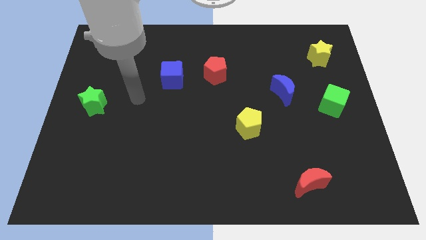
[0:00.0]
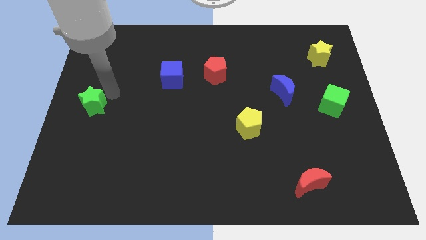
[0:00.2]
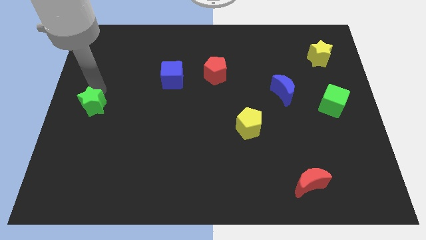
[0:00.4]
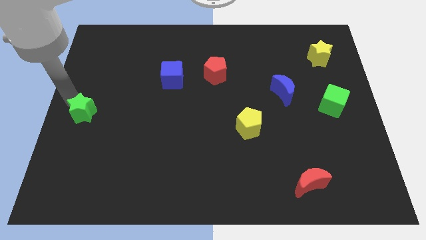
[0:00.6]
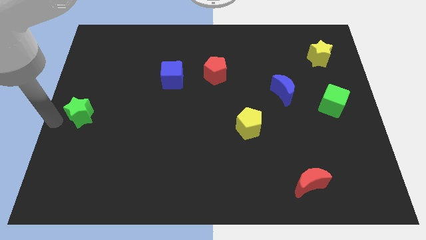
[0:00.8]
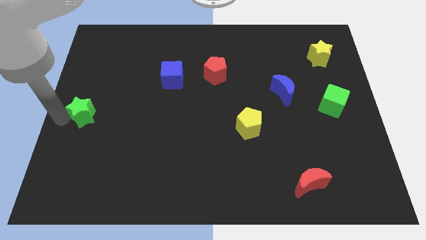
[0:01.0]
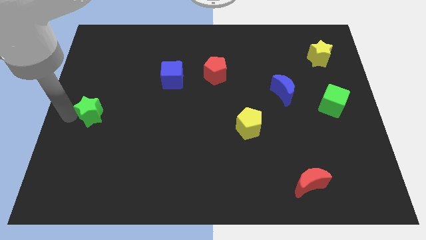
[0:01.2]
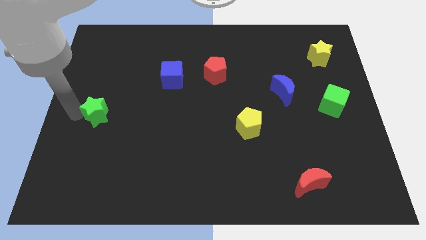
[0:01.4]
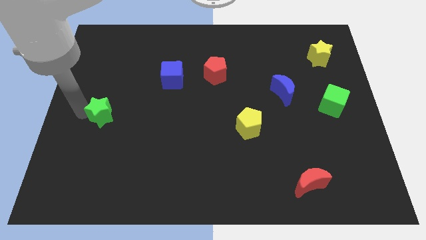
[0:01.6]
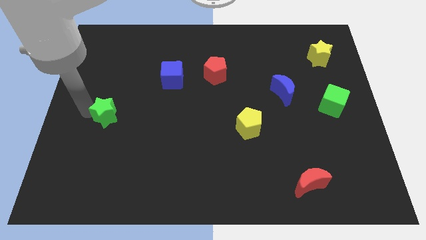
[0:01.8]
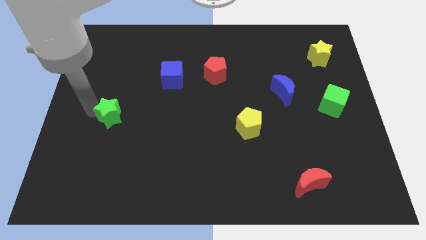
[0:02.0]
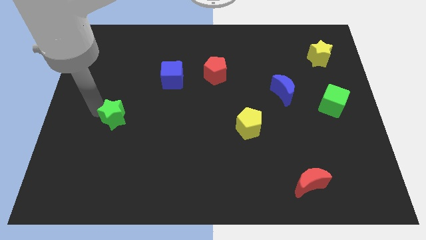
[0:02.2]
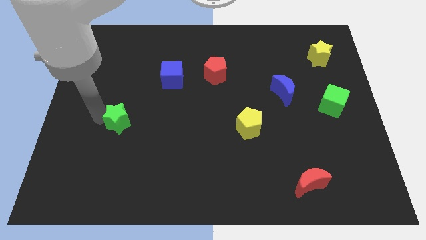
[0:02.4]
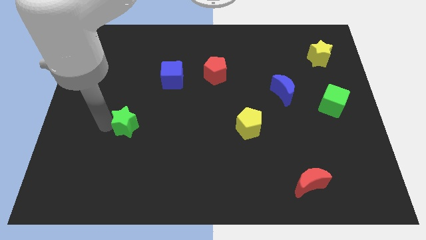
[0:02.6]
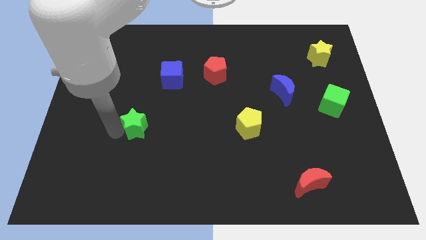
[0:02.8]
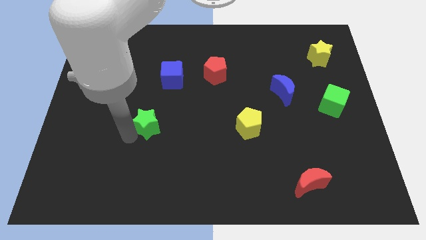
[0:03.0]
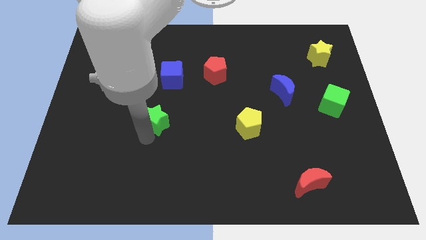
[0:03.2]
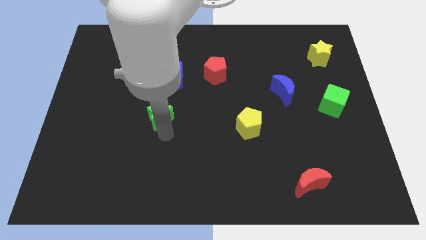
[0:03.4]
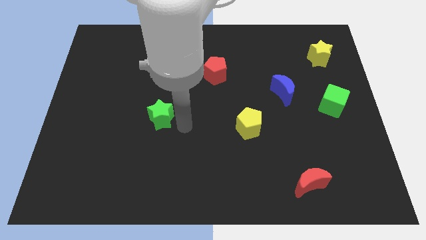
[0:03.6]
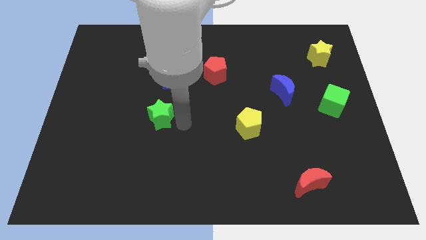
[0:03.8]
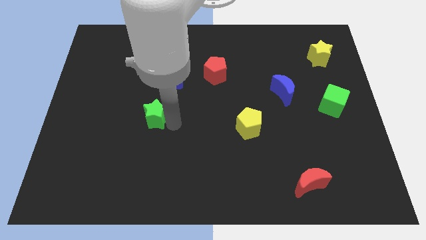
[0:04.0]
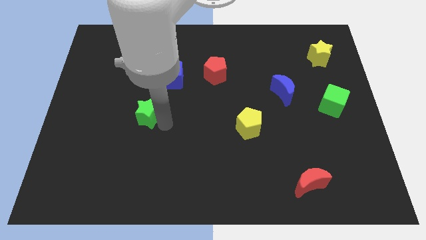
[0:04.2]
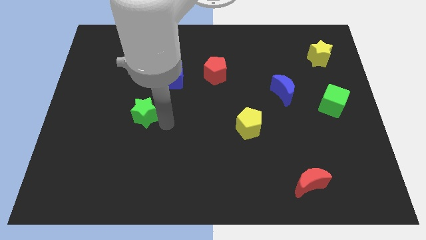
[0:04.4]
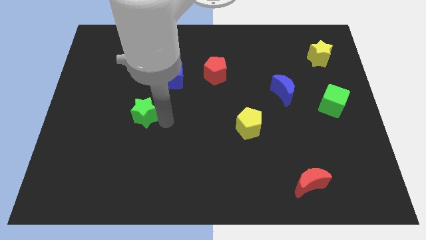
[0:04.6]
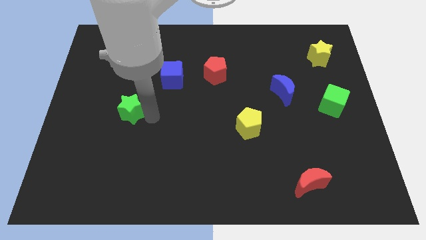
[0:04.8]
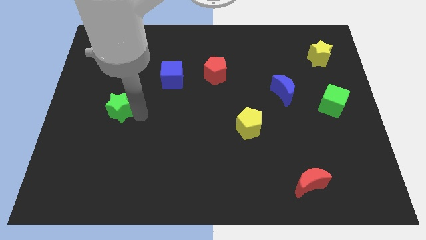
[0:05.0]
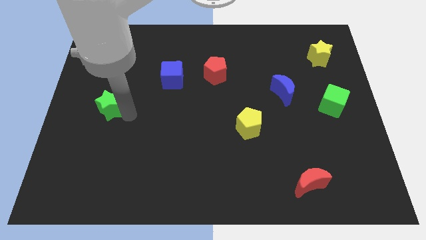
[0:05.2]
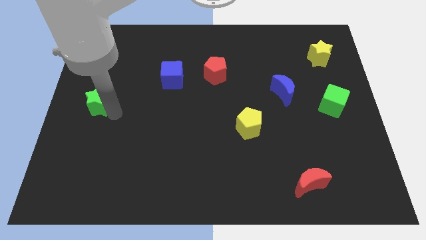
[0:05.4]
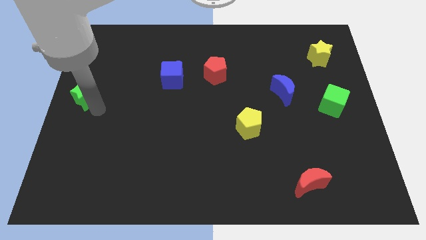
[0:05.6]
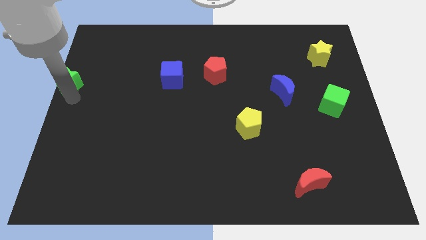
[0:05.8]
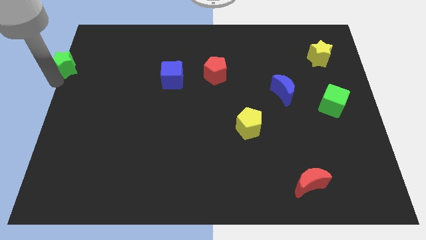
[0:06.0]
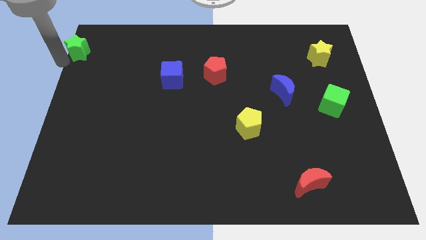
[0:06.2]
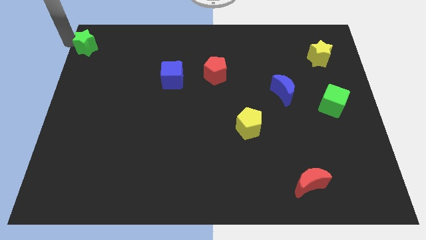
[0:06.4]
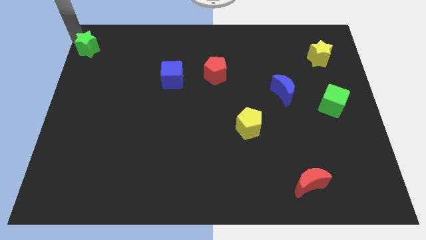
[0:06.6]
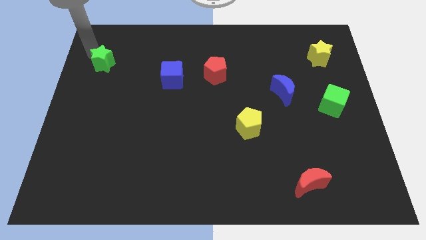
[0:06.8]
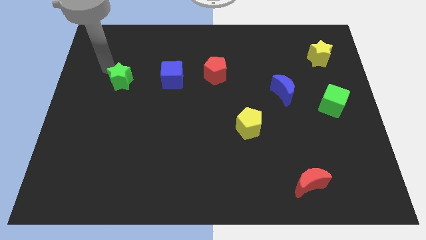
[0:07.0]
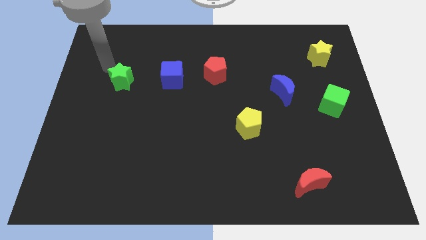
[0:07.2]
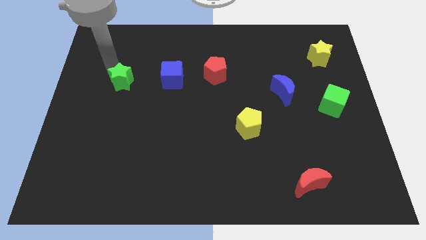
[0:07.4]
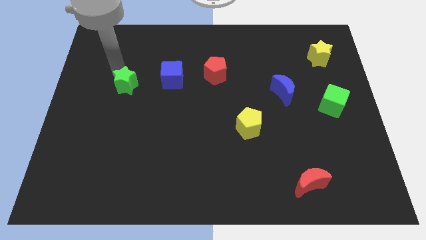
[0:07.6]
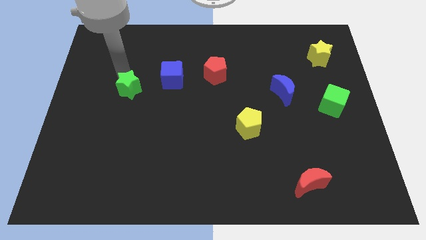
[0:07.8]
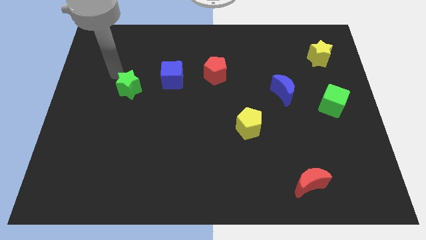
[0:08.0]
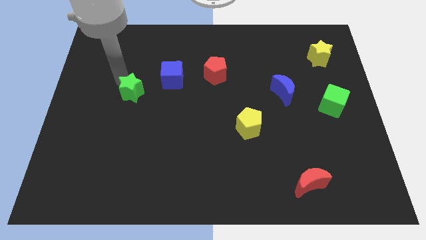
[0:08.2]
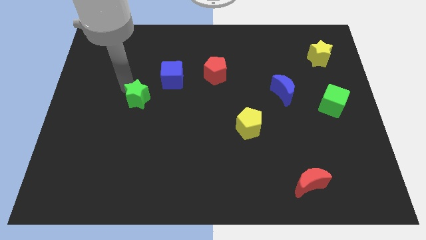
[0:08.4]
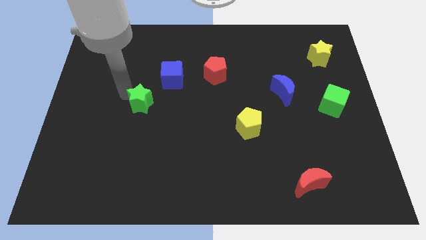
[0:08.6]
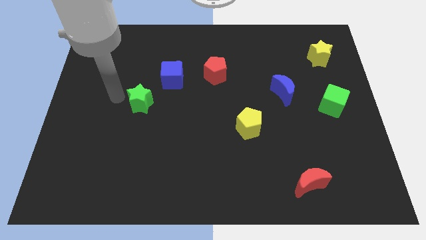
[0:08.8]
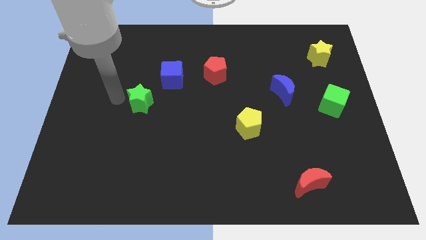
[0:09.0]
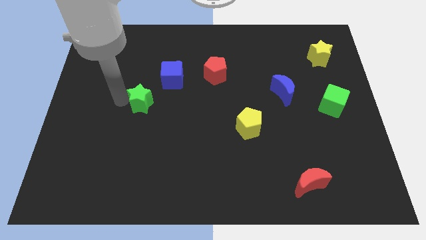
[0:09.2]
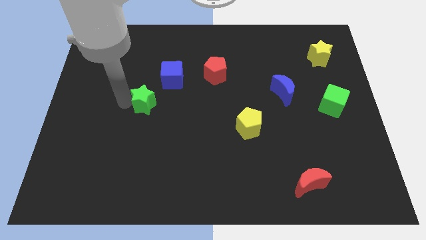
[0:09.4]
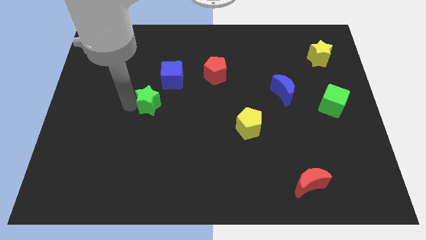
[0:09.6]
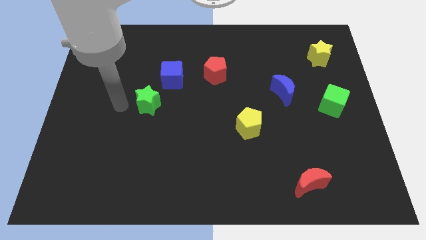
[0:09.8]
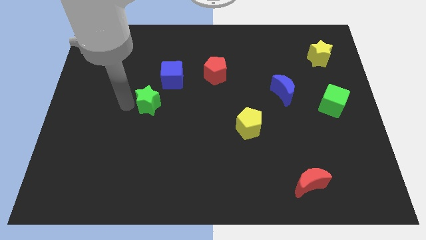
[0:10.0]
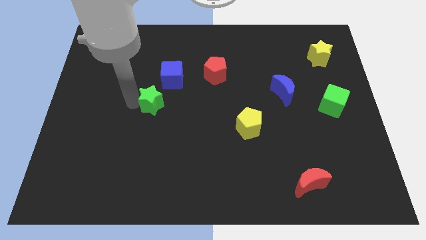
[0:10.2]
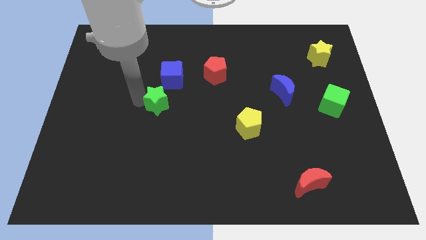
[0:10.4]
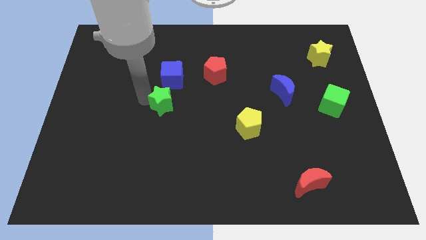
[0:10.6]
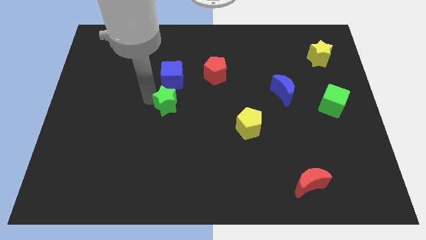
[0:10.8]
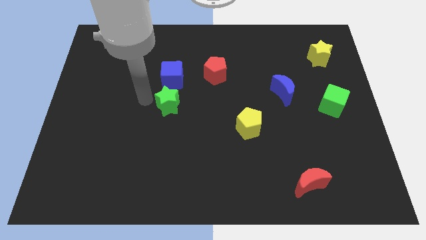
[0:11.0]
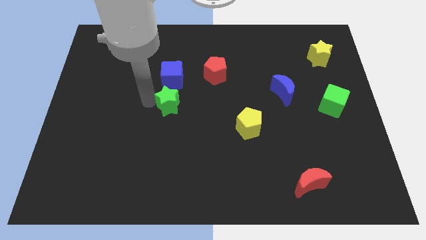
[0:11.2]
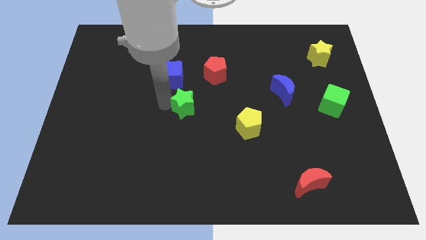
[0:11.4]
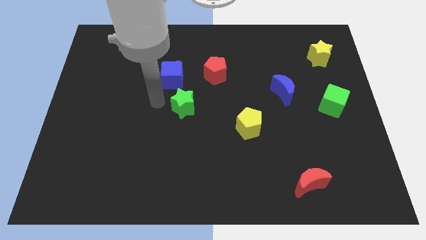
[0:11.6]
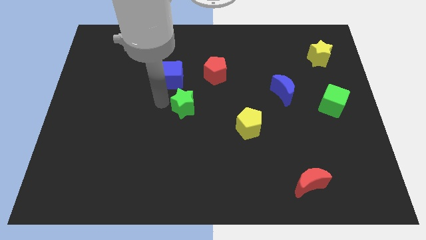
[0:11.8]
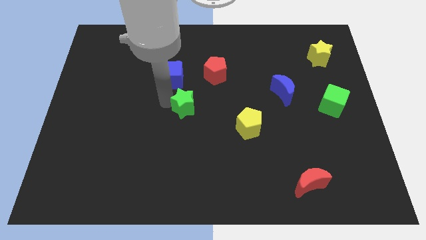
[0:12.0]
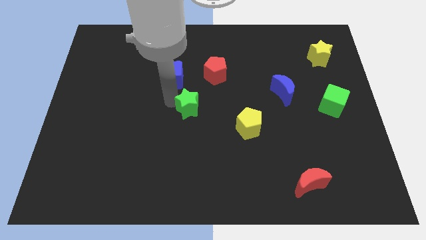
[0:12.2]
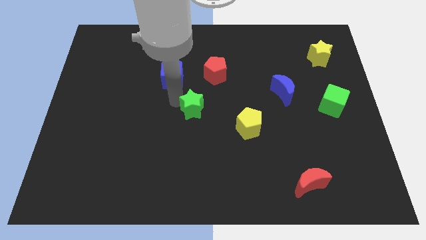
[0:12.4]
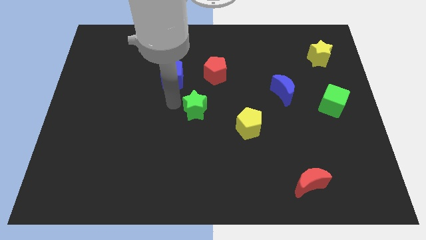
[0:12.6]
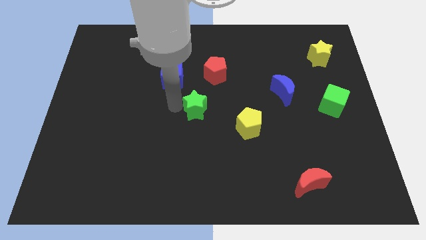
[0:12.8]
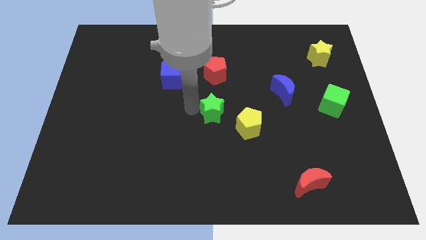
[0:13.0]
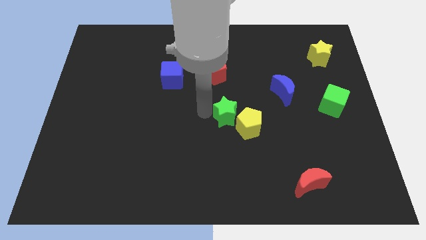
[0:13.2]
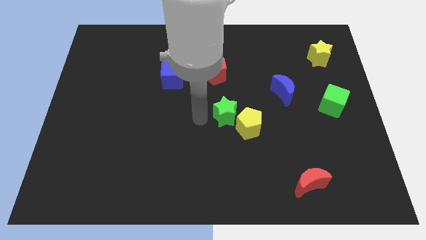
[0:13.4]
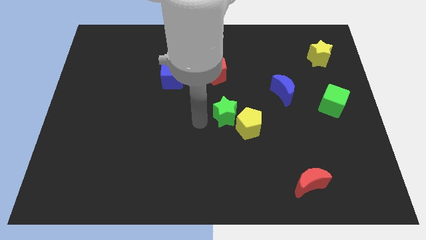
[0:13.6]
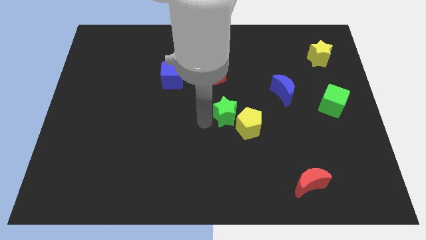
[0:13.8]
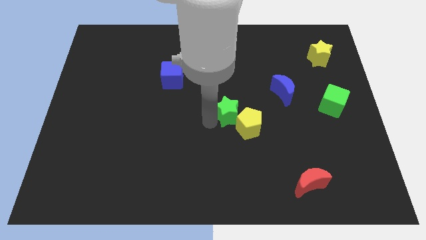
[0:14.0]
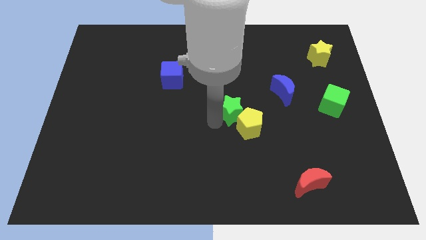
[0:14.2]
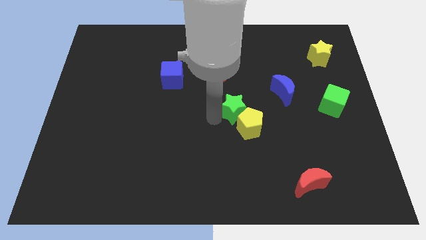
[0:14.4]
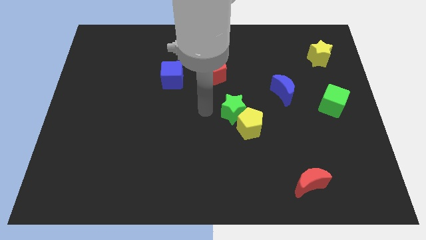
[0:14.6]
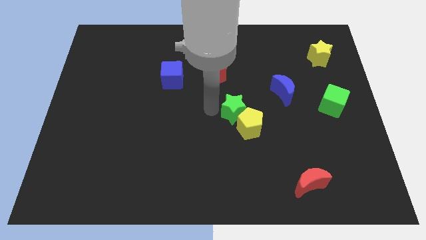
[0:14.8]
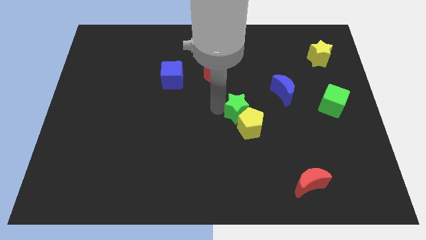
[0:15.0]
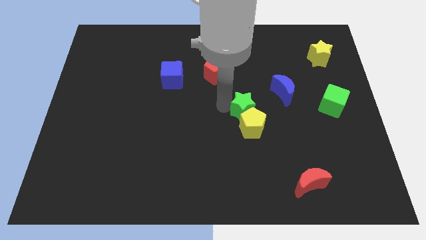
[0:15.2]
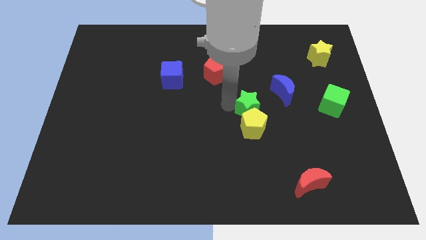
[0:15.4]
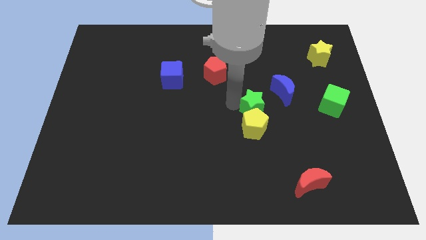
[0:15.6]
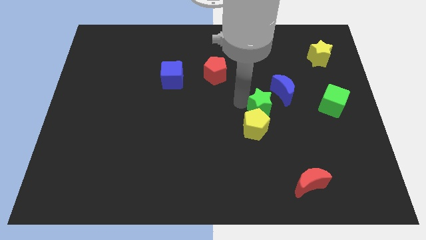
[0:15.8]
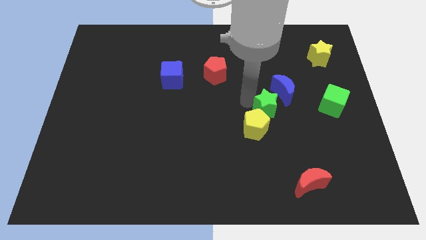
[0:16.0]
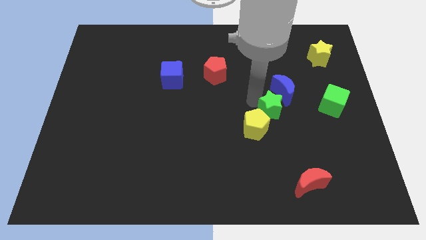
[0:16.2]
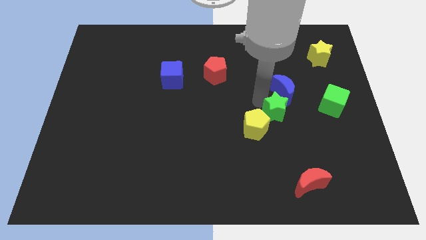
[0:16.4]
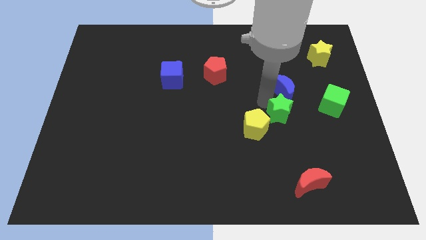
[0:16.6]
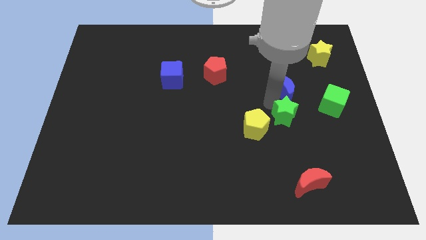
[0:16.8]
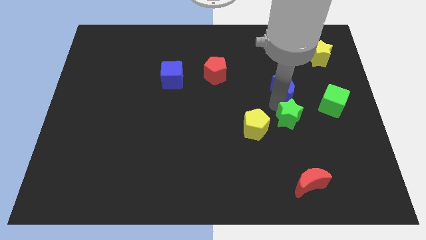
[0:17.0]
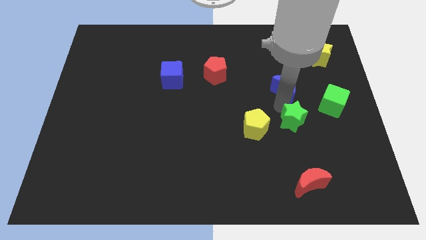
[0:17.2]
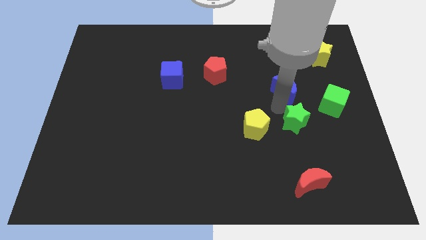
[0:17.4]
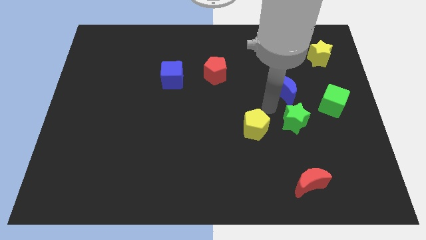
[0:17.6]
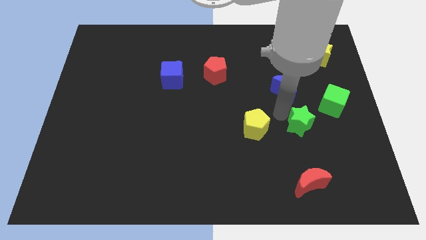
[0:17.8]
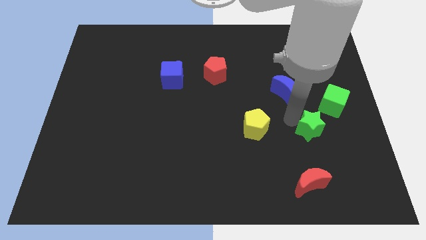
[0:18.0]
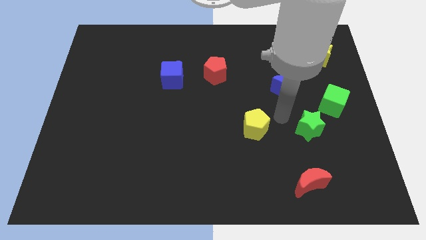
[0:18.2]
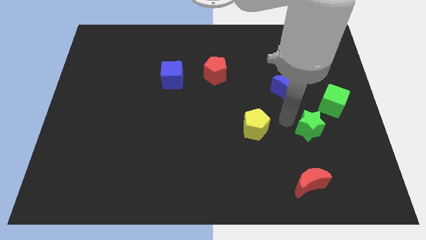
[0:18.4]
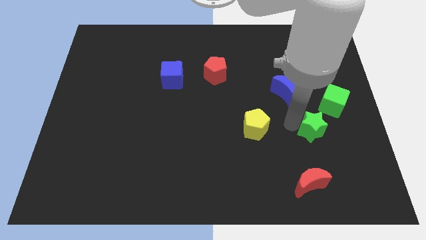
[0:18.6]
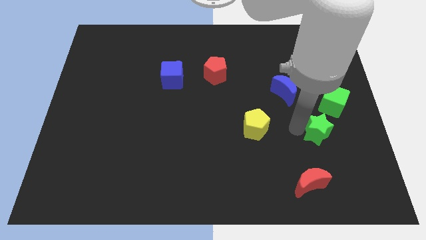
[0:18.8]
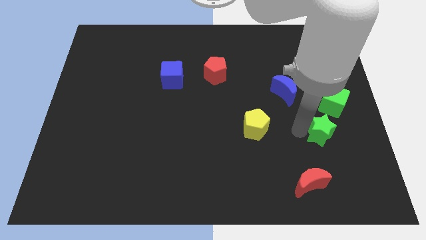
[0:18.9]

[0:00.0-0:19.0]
push the green star to the bottom of the green cube
